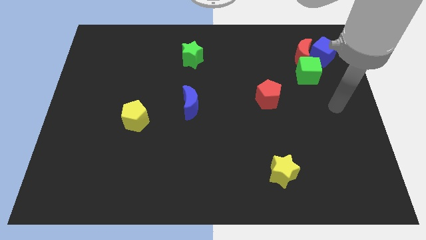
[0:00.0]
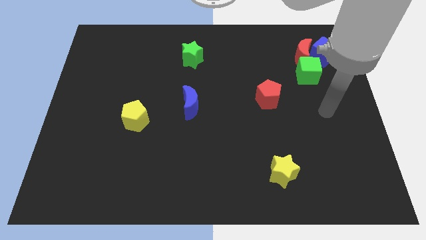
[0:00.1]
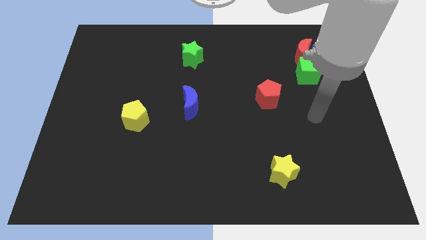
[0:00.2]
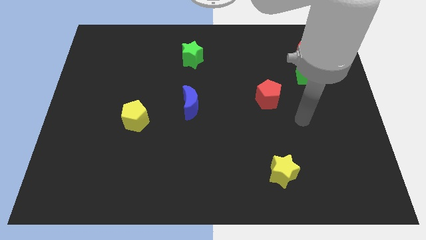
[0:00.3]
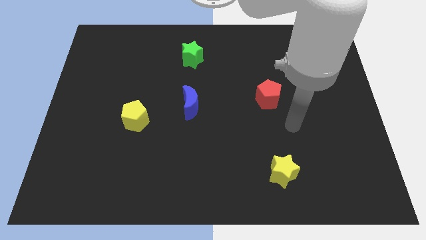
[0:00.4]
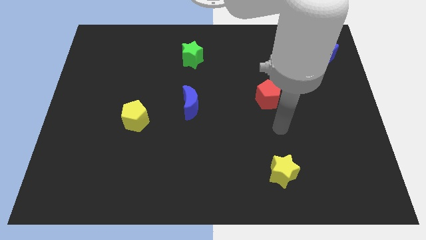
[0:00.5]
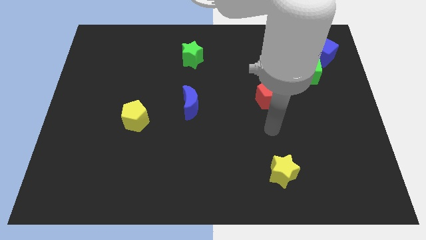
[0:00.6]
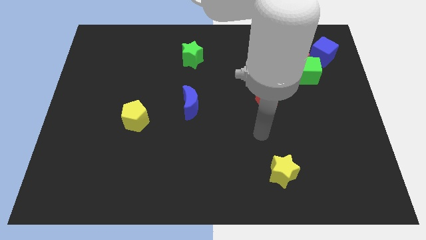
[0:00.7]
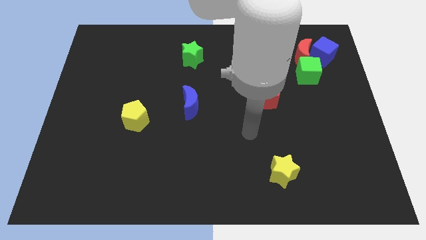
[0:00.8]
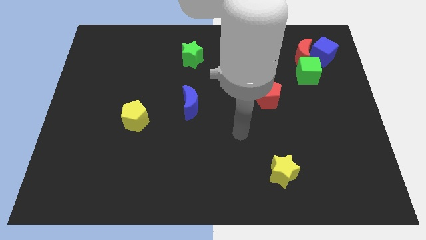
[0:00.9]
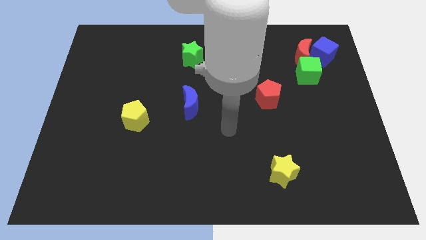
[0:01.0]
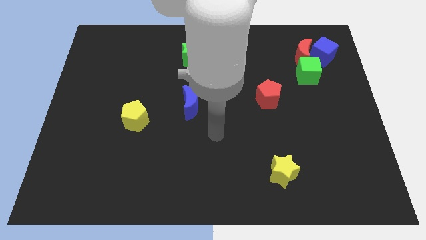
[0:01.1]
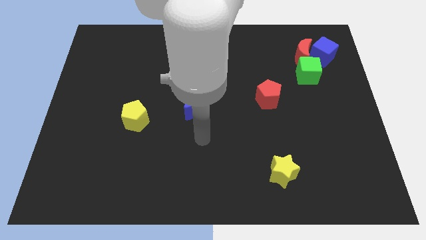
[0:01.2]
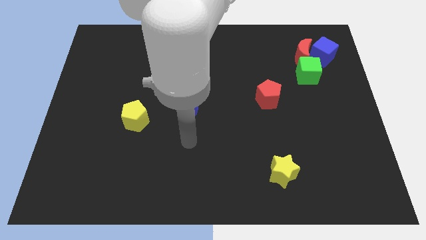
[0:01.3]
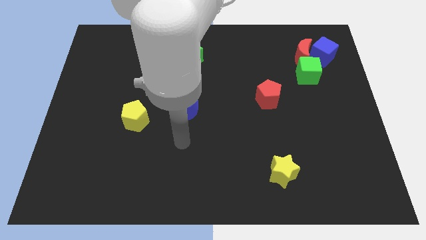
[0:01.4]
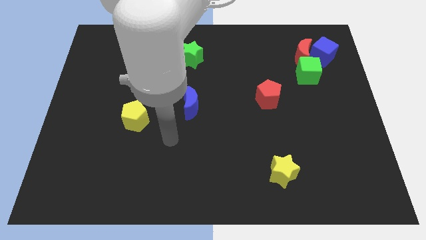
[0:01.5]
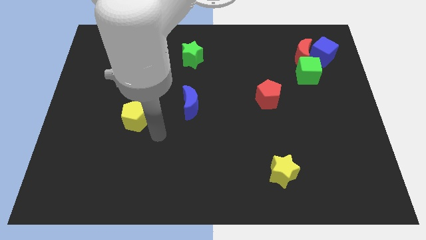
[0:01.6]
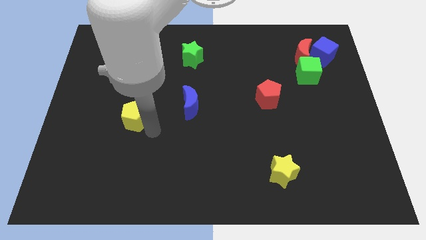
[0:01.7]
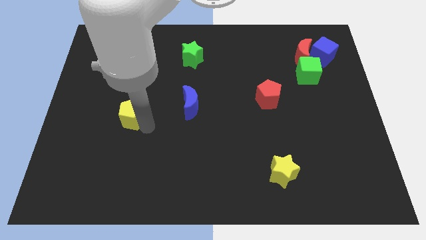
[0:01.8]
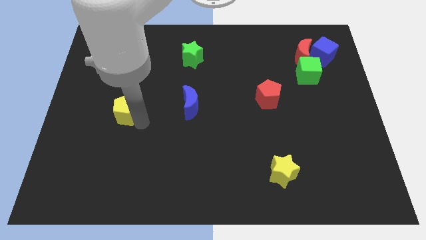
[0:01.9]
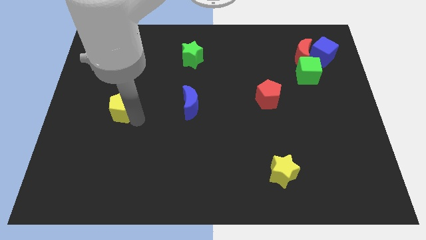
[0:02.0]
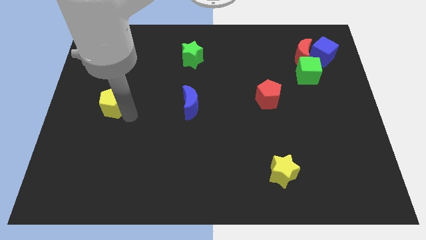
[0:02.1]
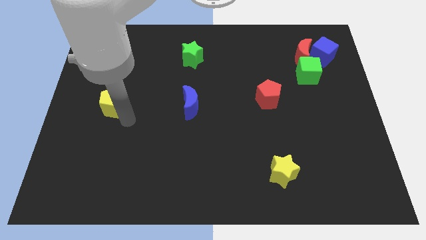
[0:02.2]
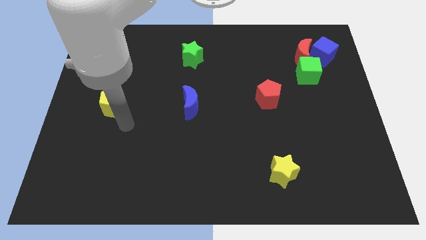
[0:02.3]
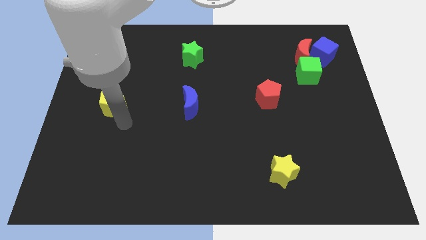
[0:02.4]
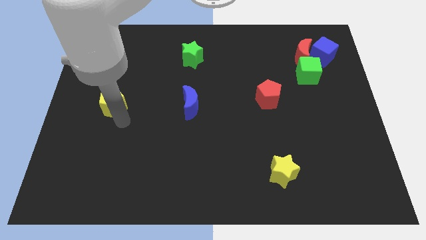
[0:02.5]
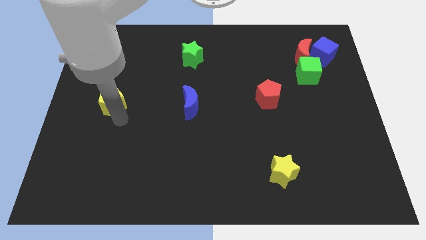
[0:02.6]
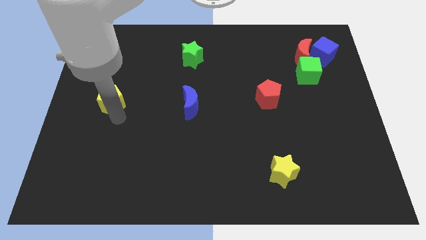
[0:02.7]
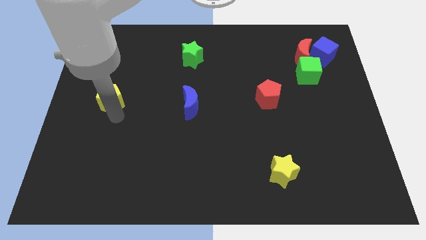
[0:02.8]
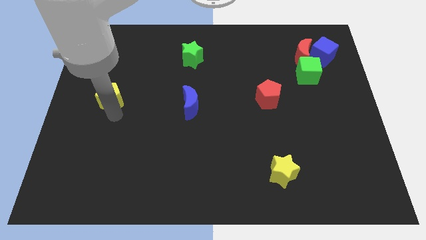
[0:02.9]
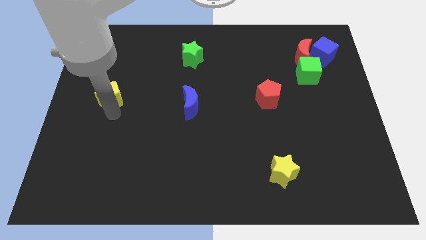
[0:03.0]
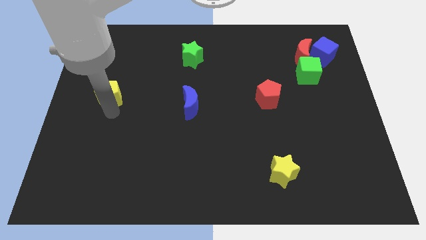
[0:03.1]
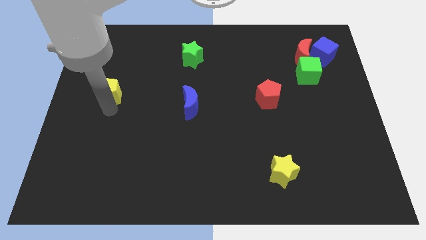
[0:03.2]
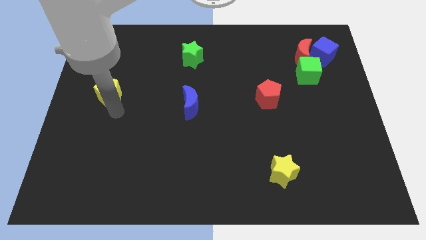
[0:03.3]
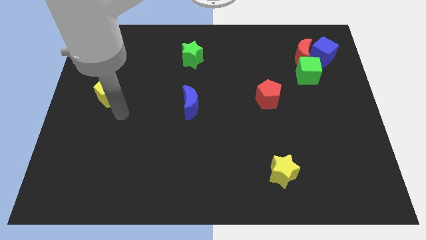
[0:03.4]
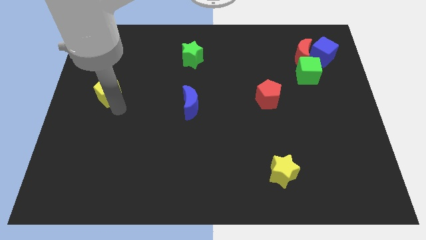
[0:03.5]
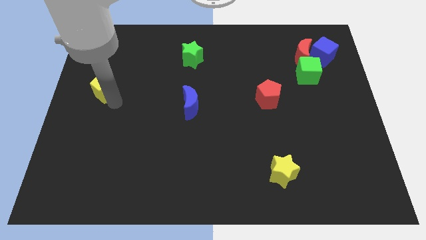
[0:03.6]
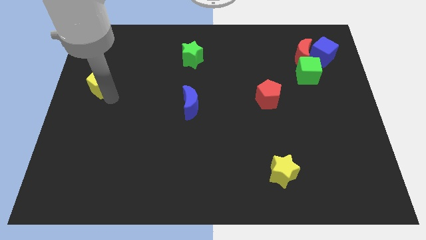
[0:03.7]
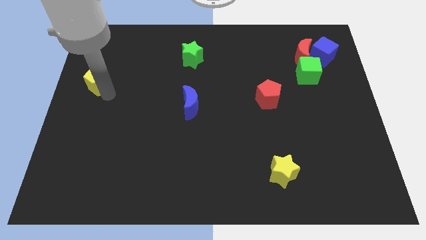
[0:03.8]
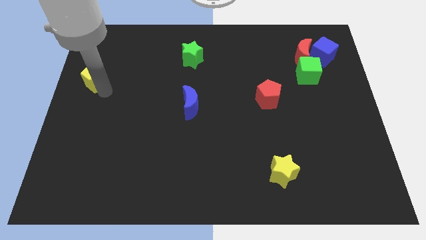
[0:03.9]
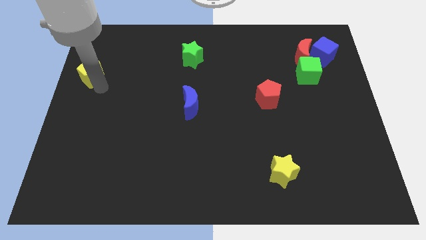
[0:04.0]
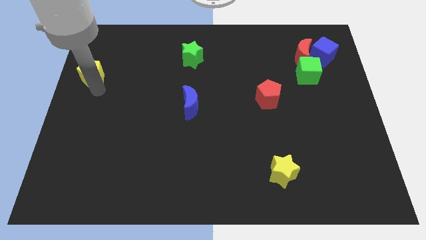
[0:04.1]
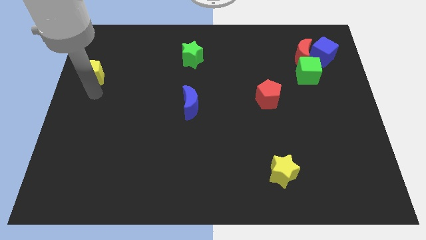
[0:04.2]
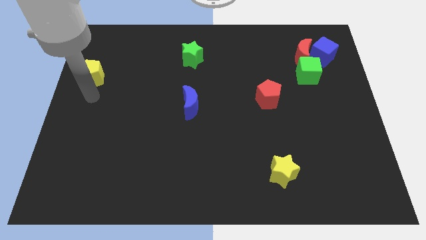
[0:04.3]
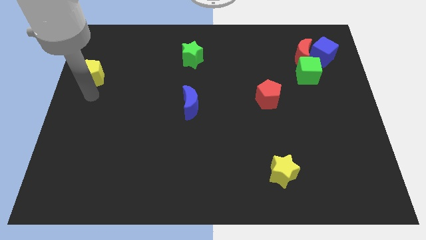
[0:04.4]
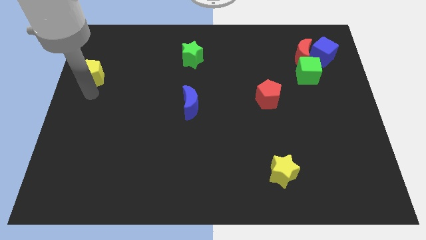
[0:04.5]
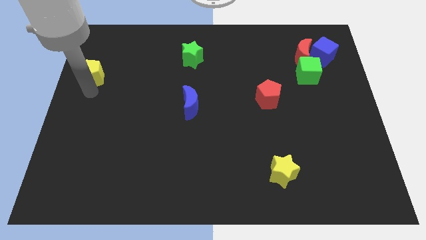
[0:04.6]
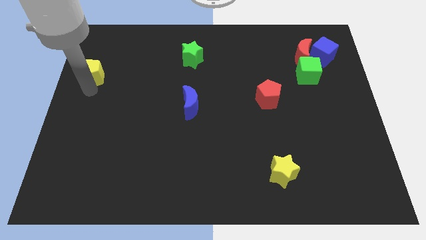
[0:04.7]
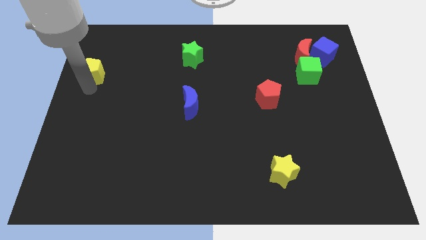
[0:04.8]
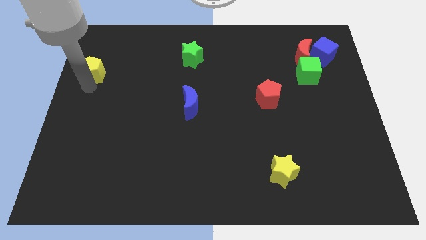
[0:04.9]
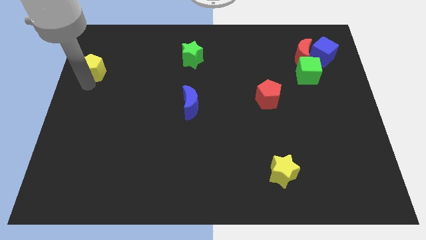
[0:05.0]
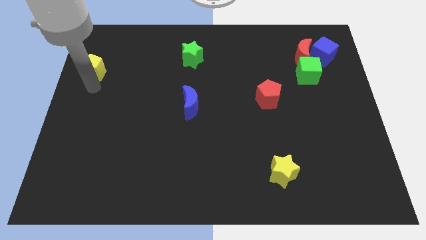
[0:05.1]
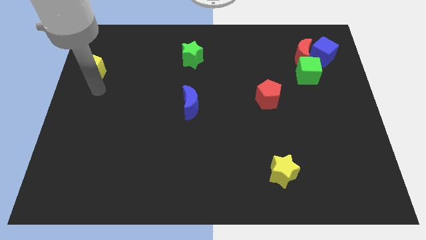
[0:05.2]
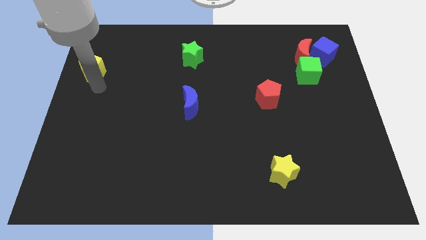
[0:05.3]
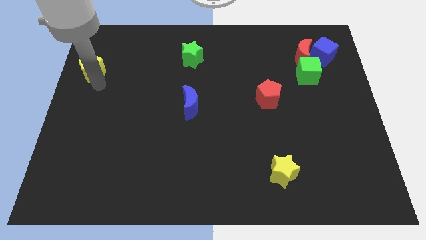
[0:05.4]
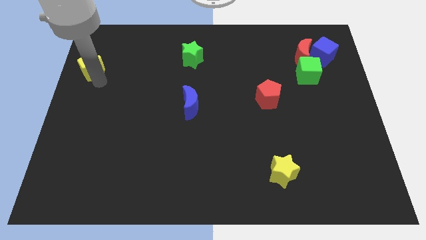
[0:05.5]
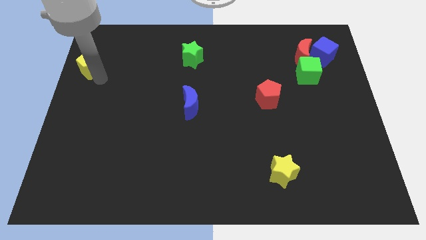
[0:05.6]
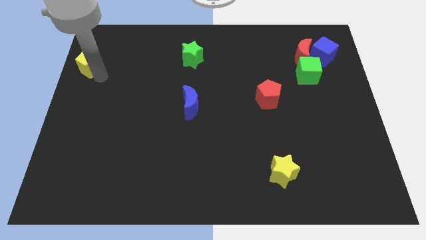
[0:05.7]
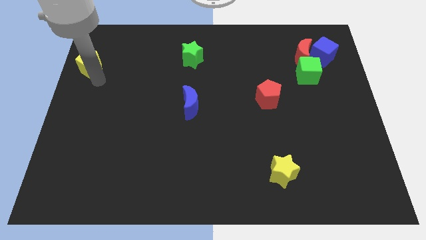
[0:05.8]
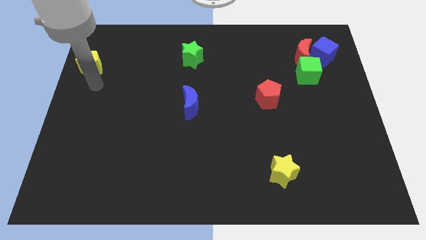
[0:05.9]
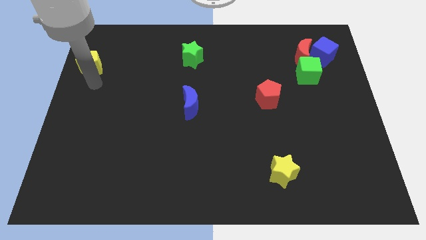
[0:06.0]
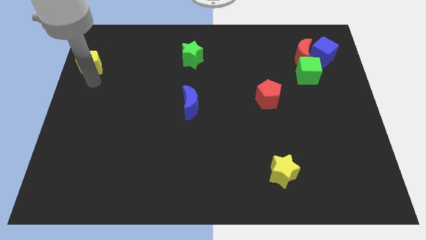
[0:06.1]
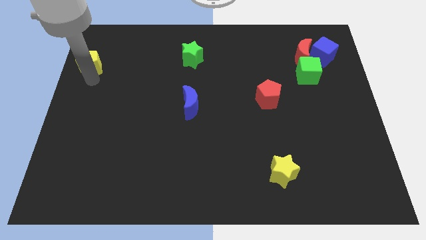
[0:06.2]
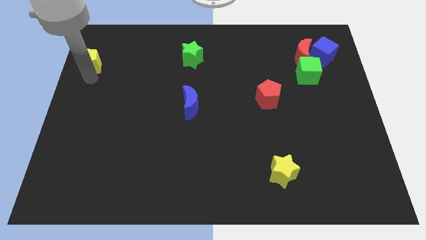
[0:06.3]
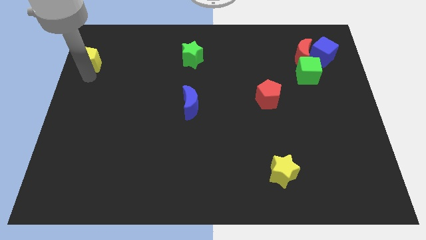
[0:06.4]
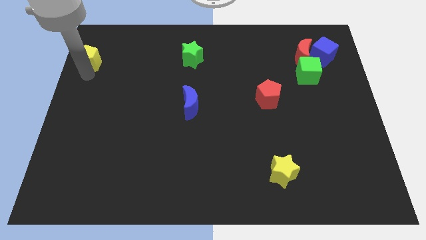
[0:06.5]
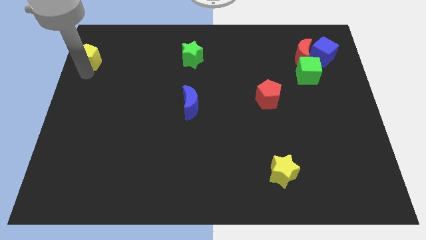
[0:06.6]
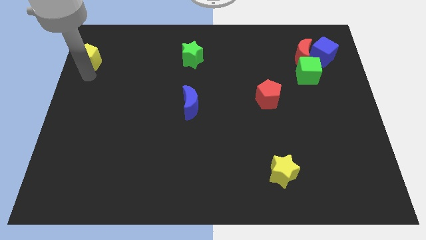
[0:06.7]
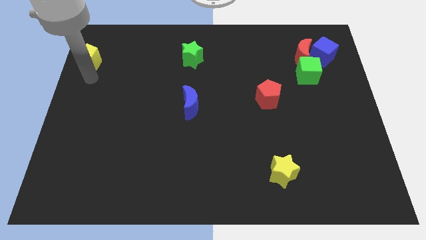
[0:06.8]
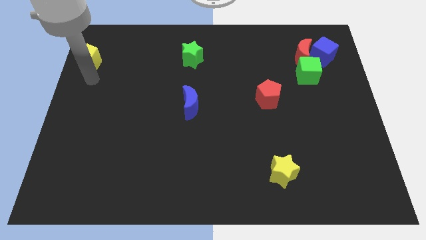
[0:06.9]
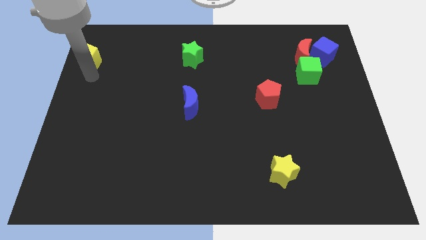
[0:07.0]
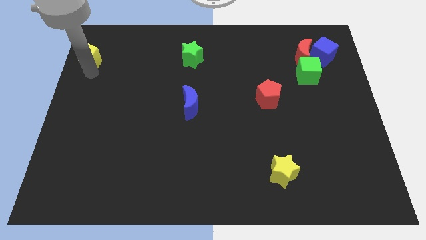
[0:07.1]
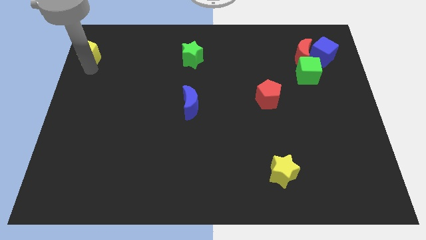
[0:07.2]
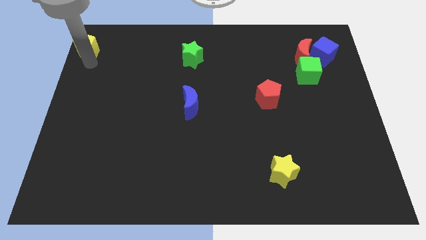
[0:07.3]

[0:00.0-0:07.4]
push the yellow pentagon to the top left corner
